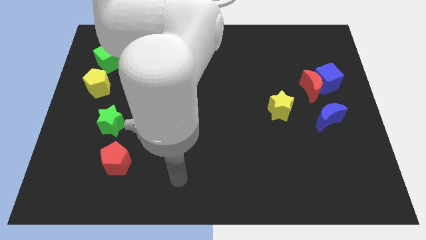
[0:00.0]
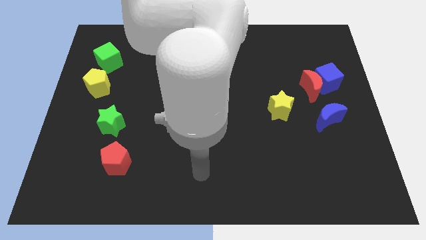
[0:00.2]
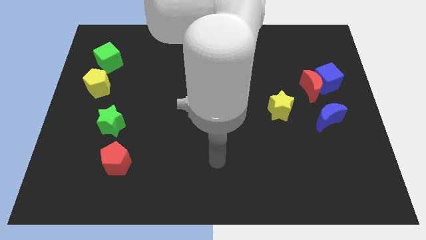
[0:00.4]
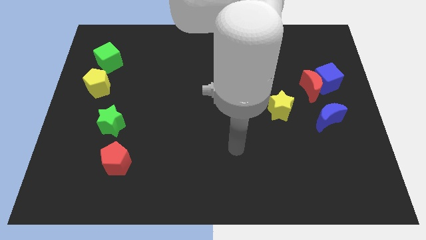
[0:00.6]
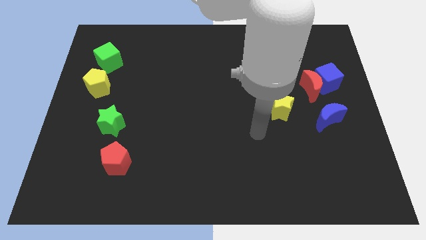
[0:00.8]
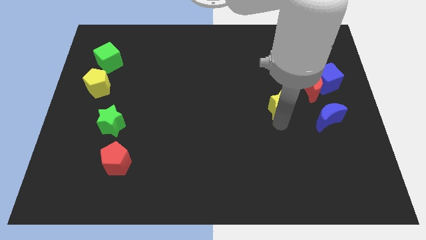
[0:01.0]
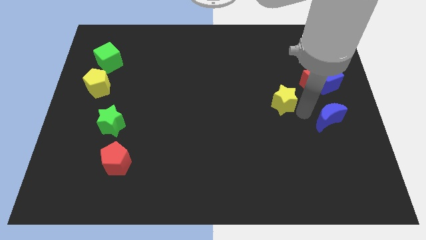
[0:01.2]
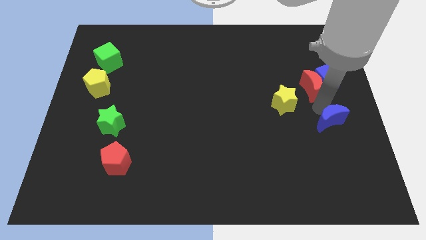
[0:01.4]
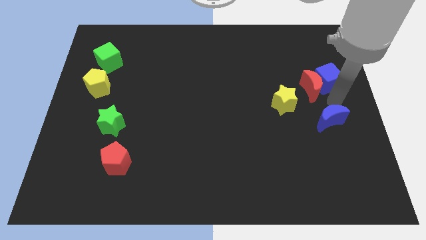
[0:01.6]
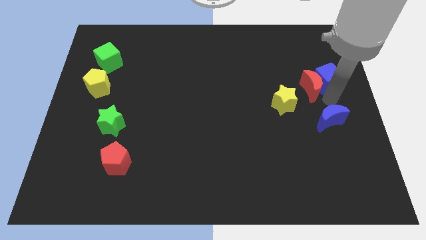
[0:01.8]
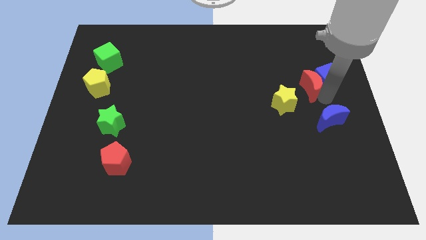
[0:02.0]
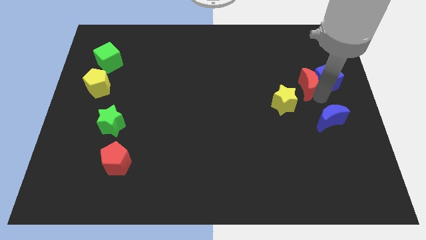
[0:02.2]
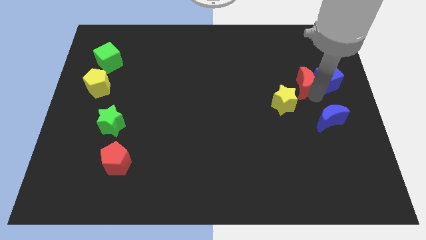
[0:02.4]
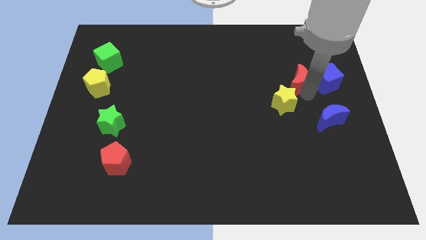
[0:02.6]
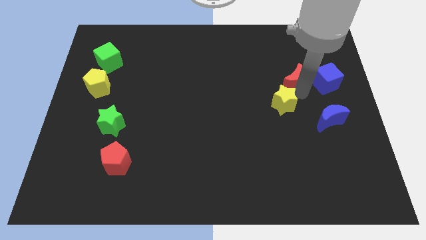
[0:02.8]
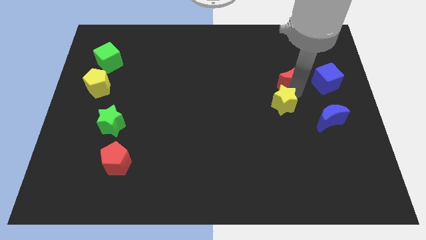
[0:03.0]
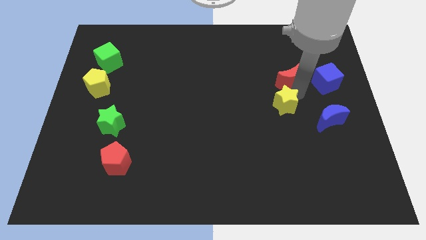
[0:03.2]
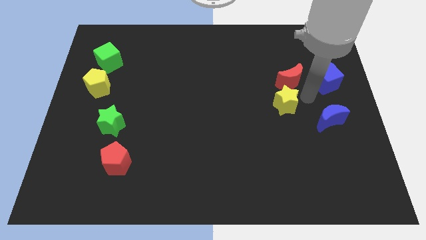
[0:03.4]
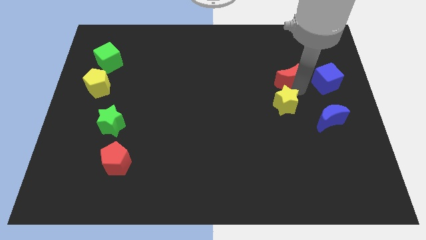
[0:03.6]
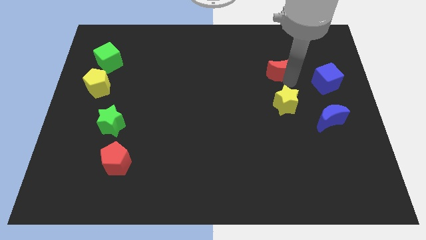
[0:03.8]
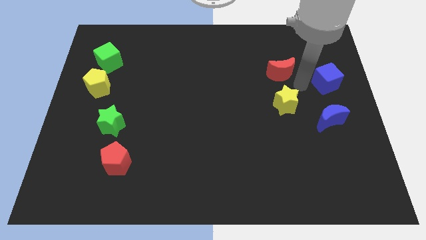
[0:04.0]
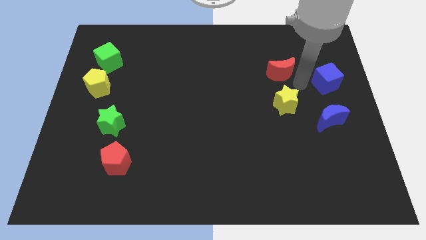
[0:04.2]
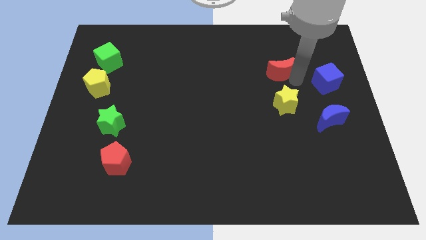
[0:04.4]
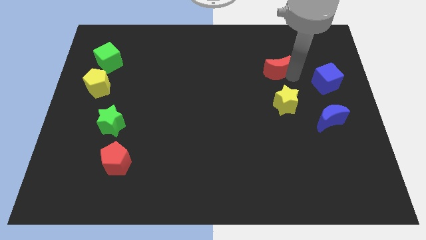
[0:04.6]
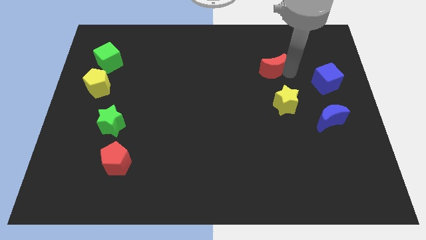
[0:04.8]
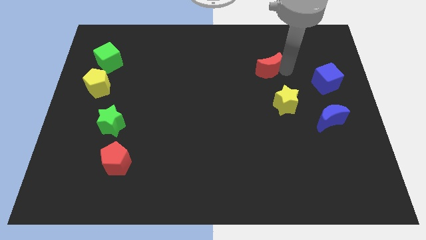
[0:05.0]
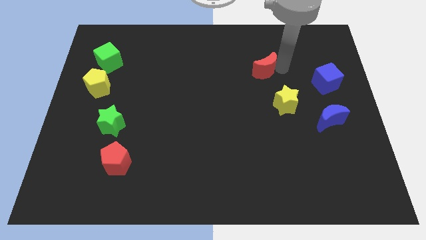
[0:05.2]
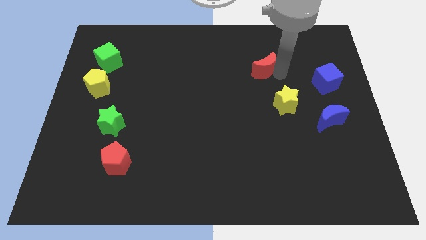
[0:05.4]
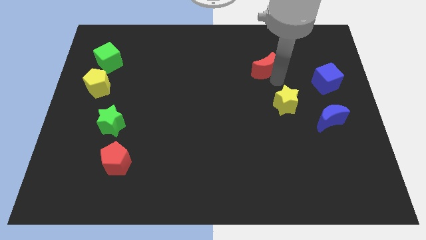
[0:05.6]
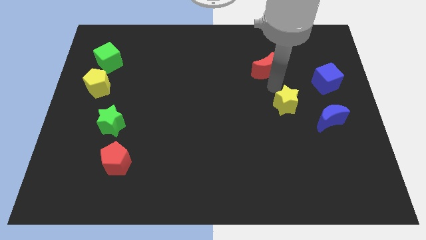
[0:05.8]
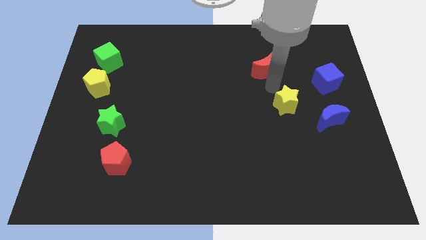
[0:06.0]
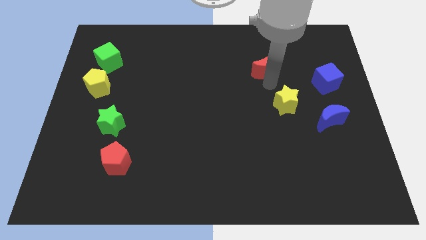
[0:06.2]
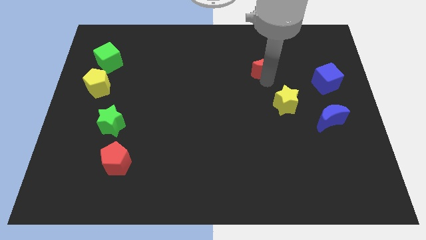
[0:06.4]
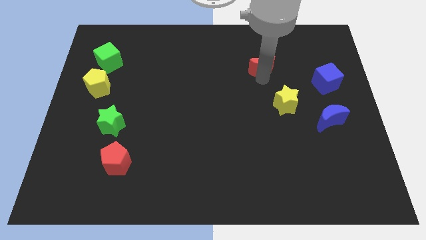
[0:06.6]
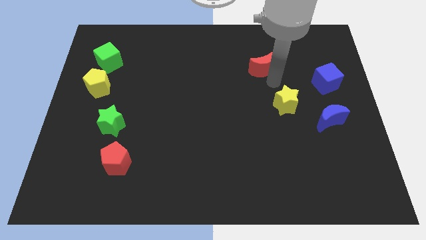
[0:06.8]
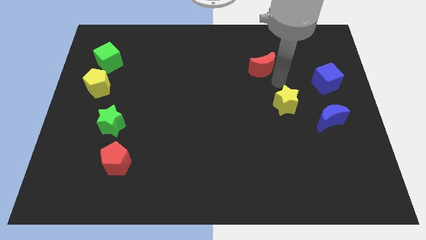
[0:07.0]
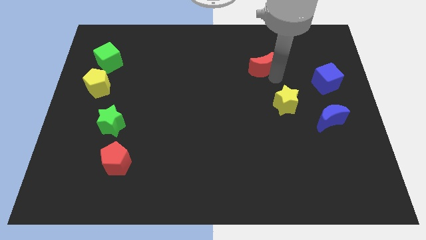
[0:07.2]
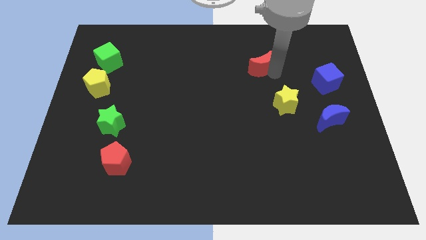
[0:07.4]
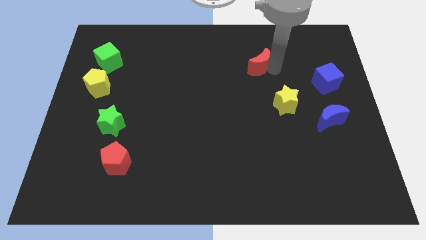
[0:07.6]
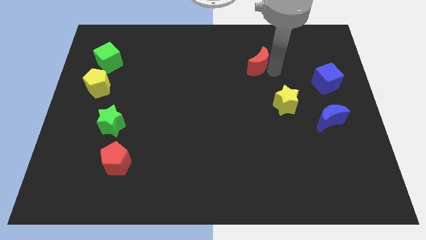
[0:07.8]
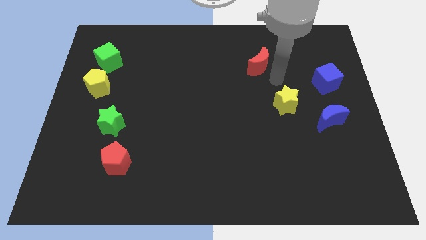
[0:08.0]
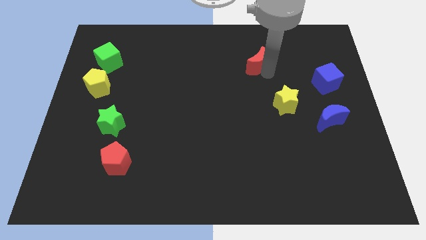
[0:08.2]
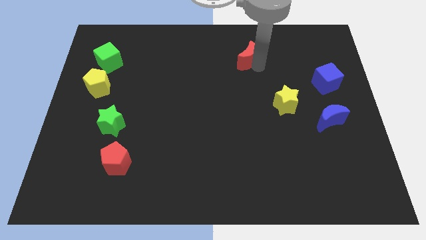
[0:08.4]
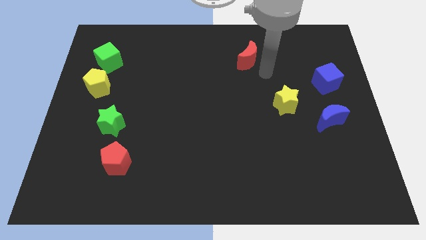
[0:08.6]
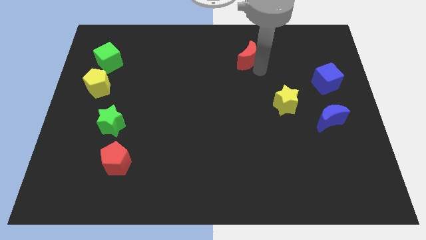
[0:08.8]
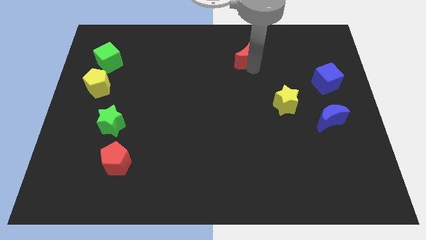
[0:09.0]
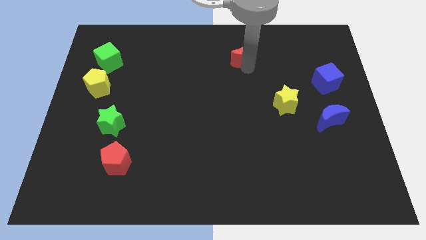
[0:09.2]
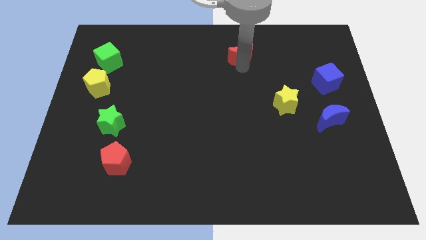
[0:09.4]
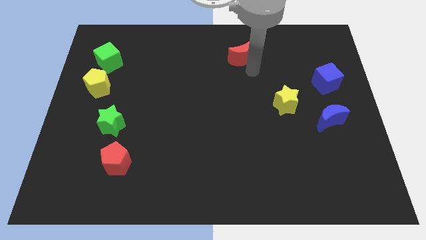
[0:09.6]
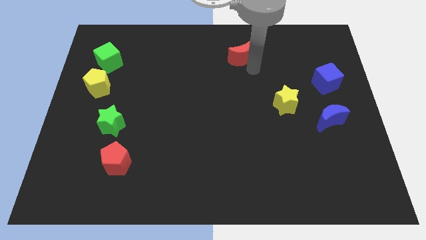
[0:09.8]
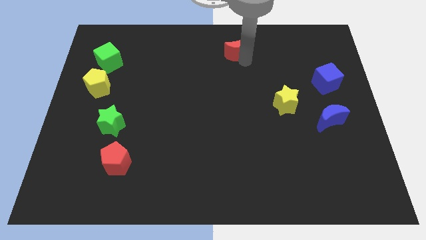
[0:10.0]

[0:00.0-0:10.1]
slide the red moon to the top

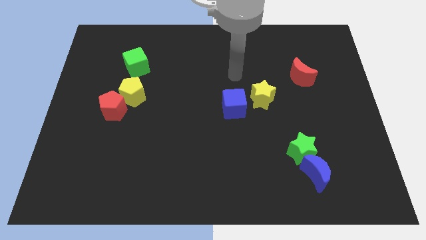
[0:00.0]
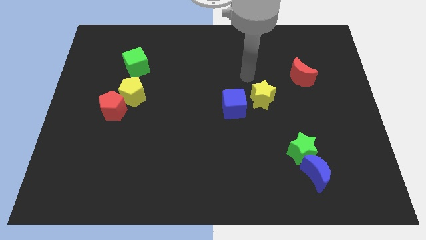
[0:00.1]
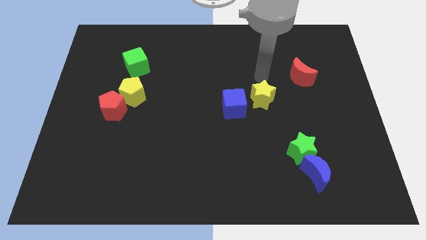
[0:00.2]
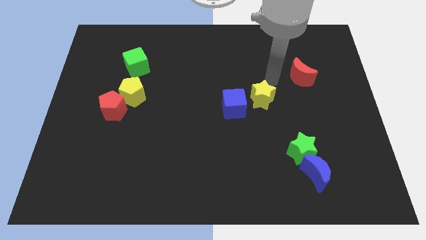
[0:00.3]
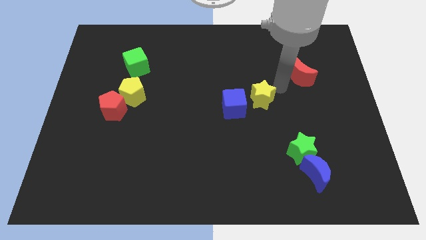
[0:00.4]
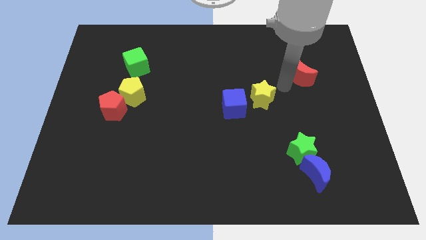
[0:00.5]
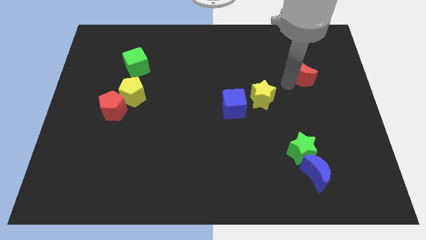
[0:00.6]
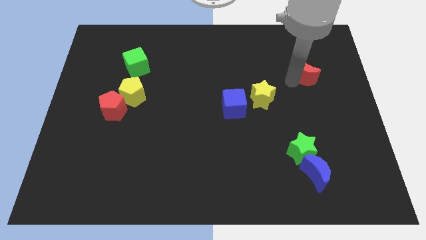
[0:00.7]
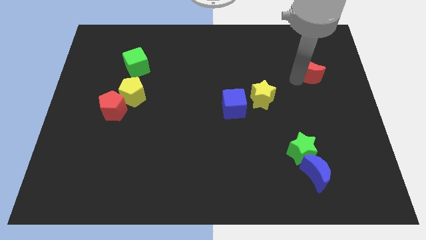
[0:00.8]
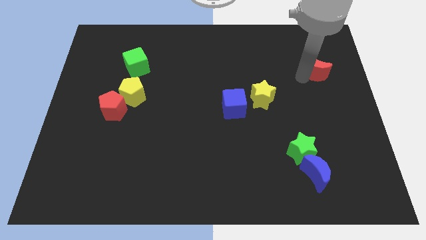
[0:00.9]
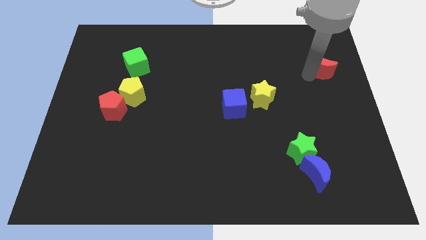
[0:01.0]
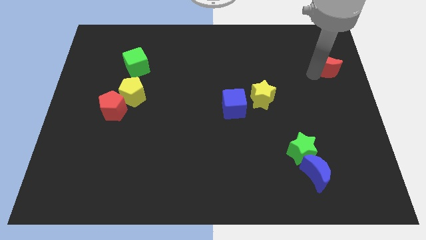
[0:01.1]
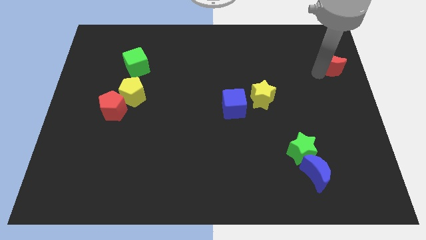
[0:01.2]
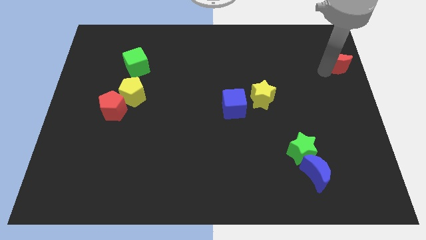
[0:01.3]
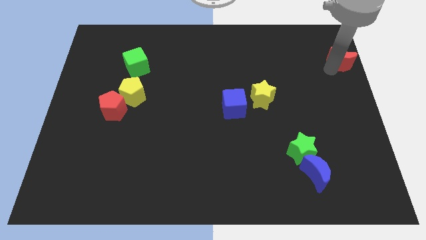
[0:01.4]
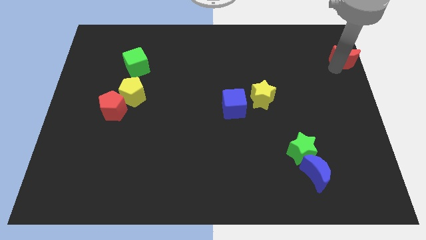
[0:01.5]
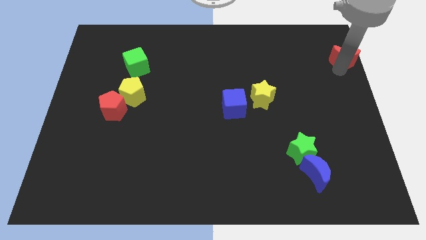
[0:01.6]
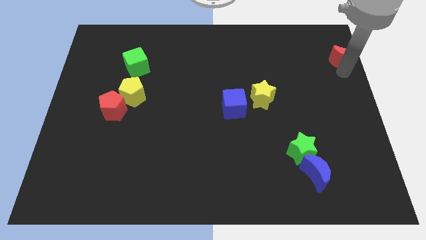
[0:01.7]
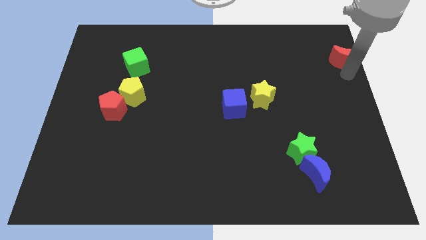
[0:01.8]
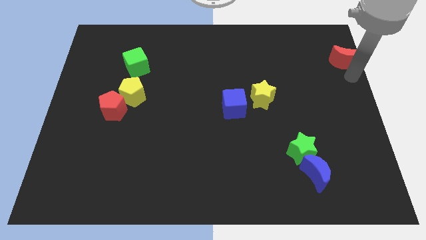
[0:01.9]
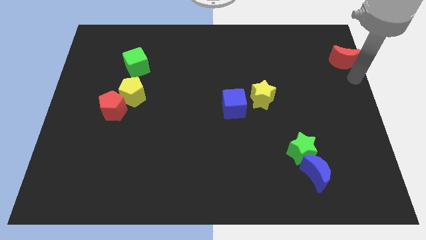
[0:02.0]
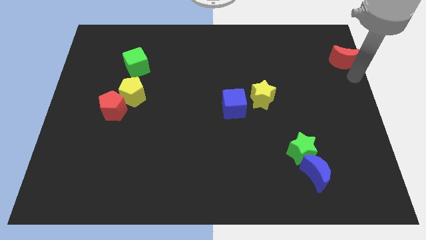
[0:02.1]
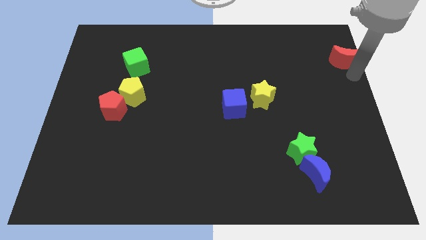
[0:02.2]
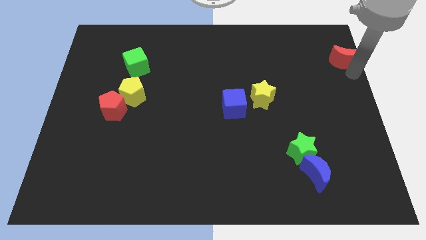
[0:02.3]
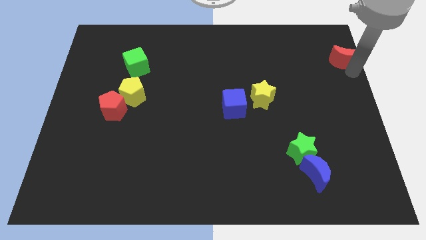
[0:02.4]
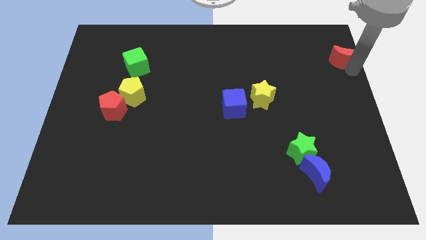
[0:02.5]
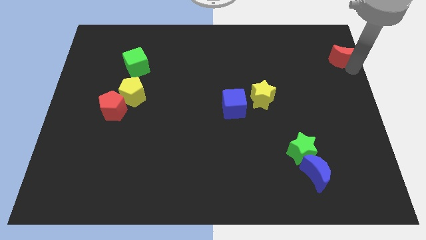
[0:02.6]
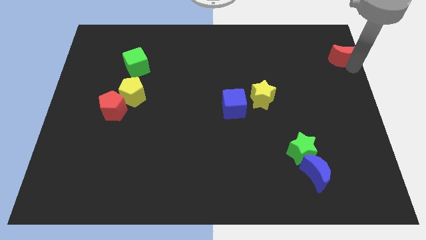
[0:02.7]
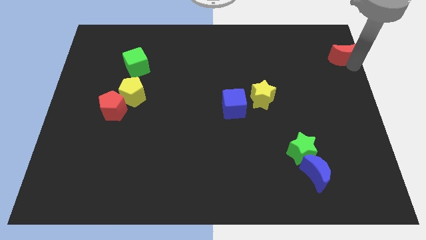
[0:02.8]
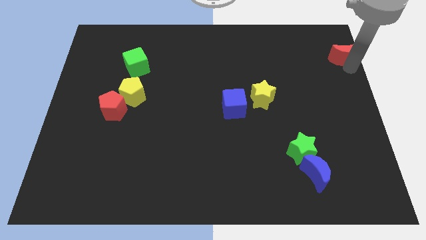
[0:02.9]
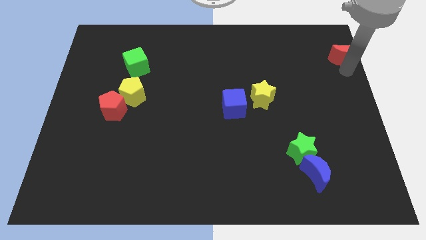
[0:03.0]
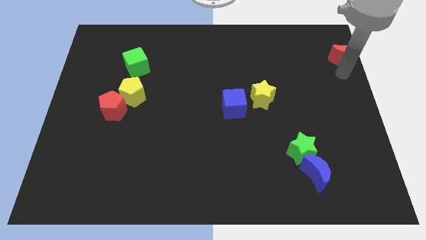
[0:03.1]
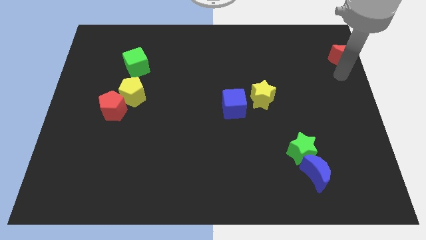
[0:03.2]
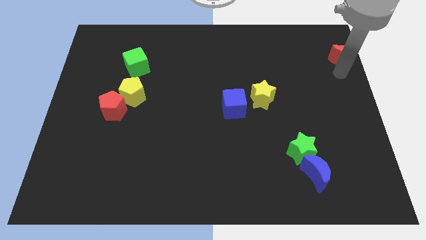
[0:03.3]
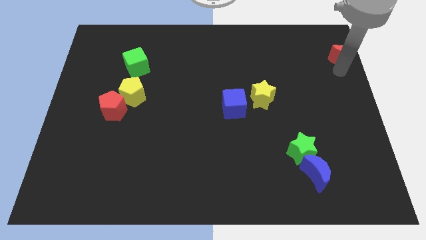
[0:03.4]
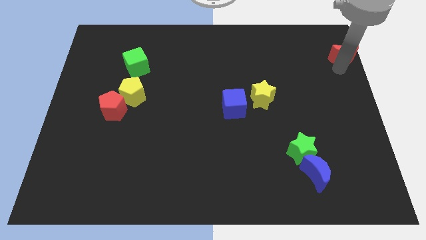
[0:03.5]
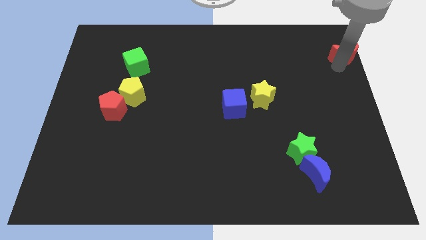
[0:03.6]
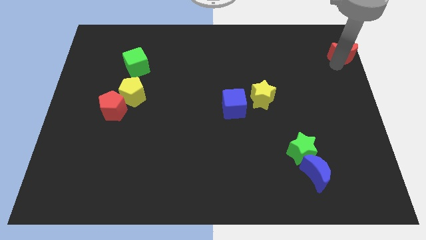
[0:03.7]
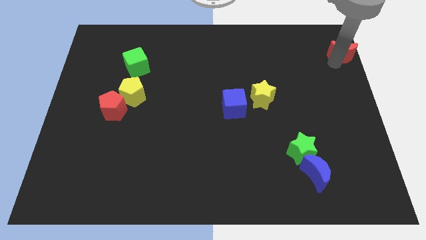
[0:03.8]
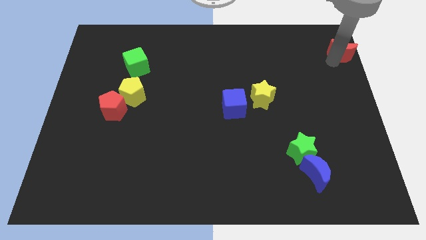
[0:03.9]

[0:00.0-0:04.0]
move the red moon to the top right of the board
